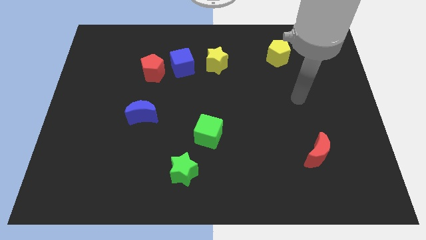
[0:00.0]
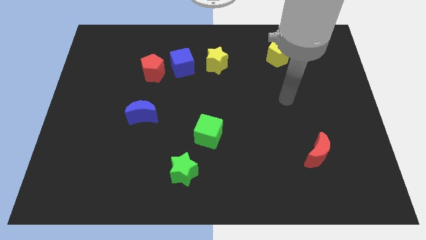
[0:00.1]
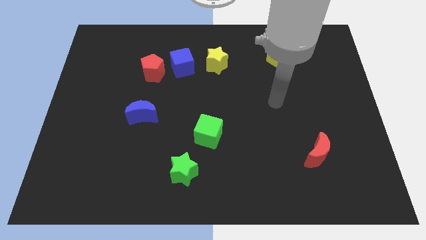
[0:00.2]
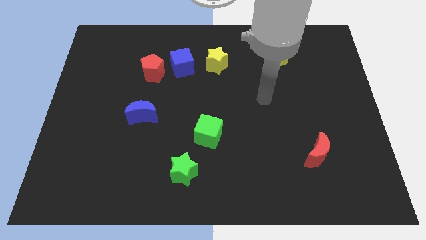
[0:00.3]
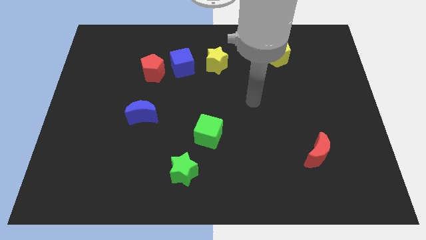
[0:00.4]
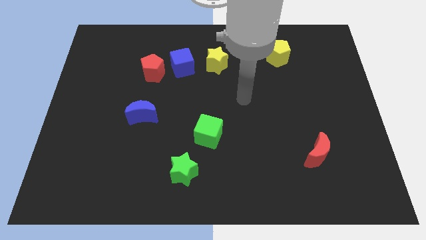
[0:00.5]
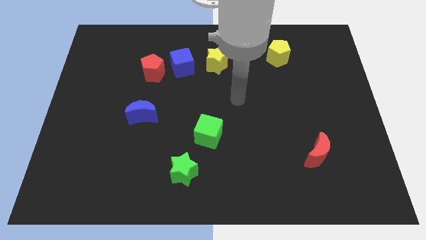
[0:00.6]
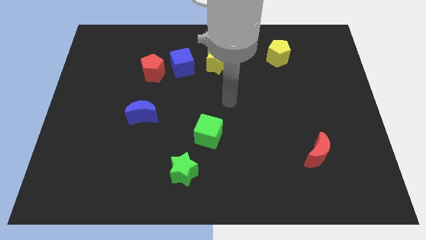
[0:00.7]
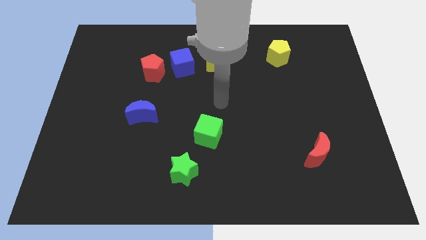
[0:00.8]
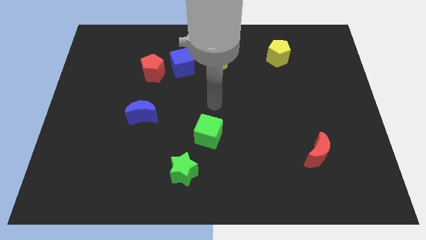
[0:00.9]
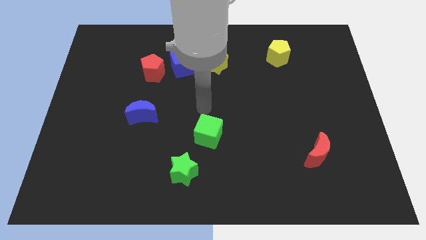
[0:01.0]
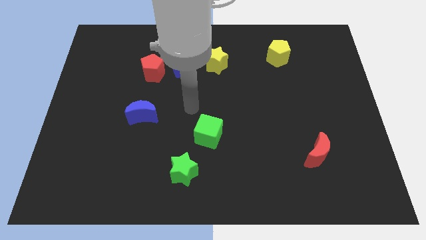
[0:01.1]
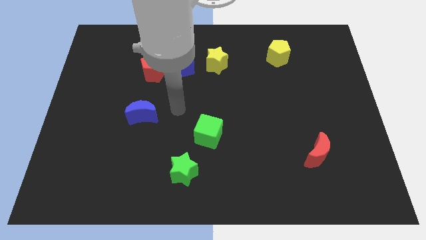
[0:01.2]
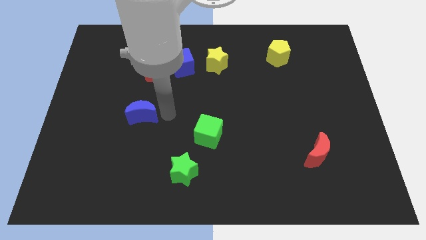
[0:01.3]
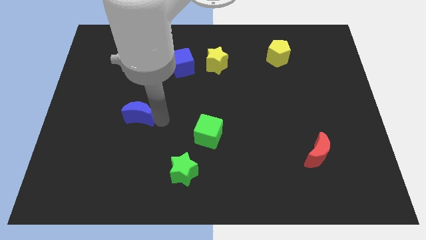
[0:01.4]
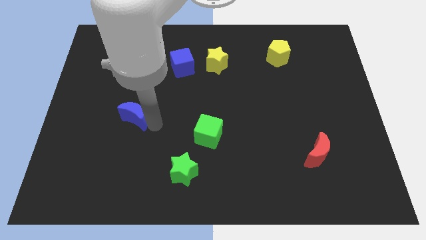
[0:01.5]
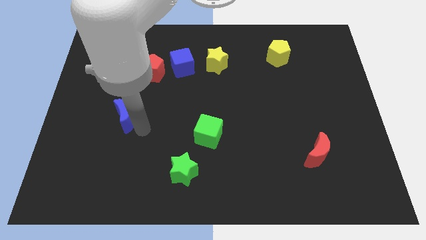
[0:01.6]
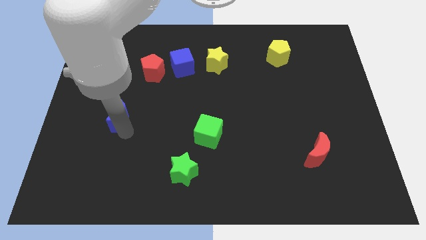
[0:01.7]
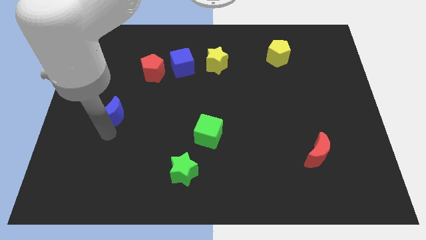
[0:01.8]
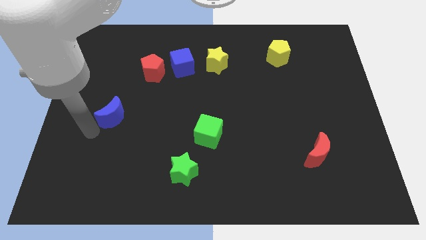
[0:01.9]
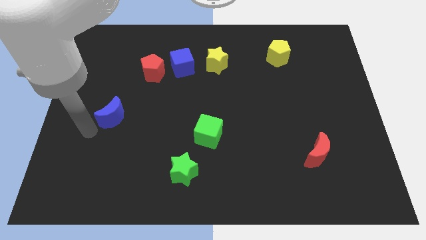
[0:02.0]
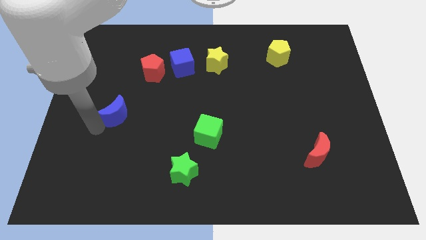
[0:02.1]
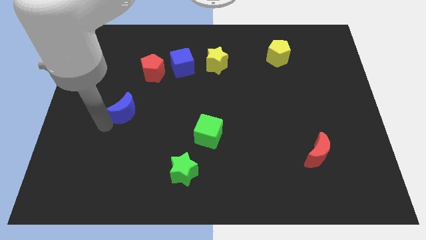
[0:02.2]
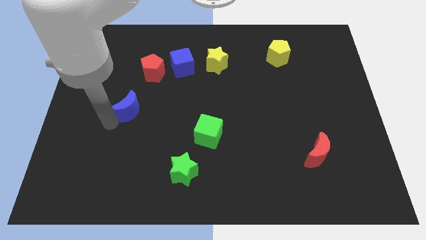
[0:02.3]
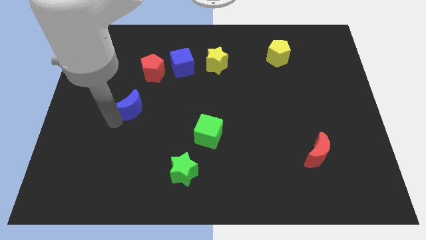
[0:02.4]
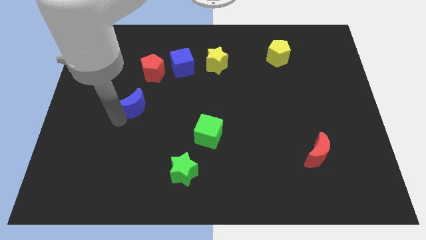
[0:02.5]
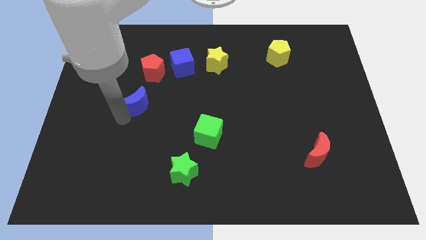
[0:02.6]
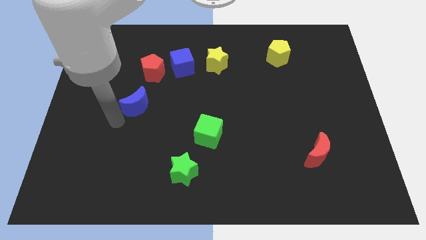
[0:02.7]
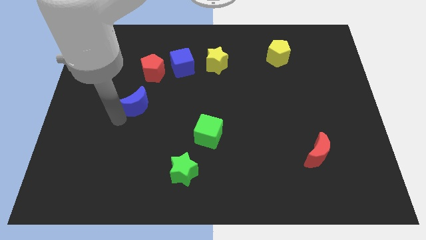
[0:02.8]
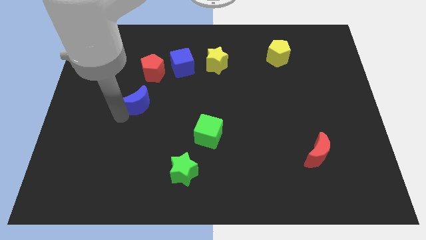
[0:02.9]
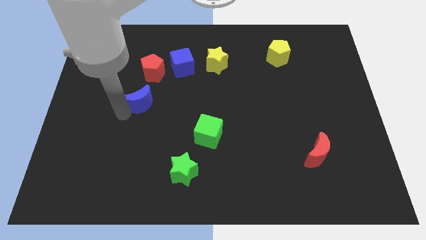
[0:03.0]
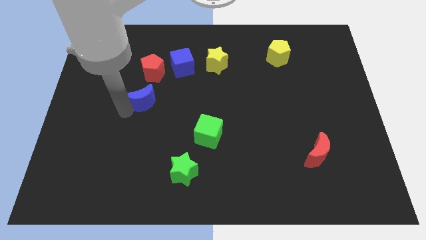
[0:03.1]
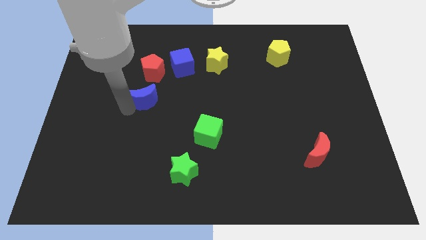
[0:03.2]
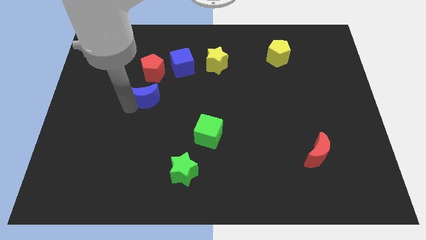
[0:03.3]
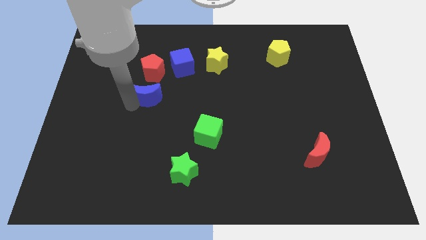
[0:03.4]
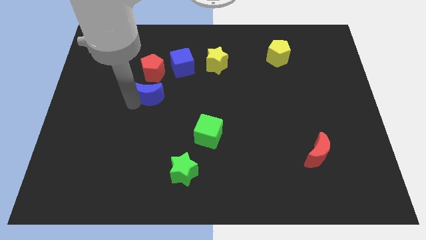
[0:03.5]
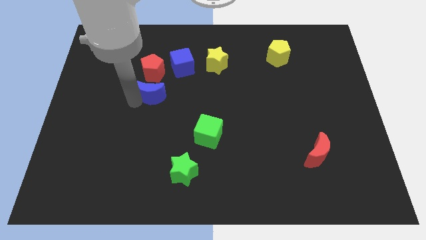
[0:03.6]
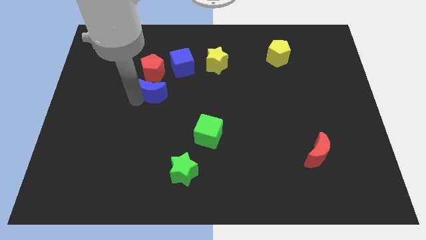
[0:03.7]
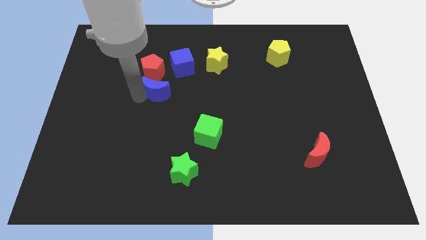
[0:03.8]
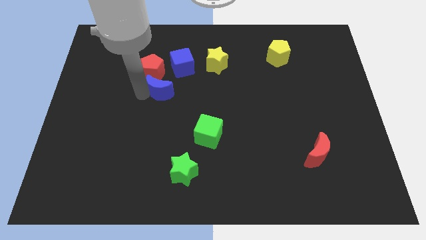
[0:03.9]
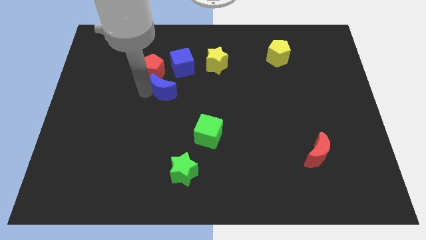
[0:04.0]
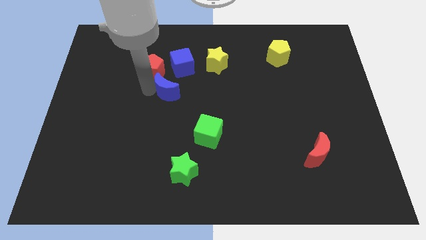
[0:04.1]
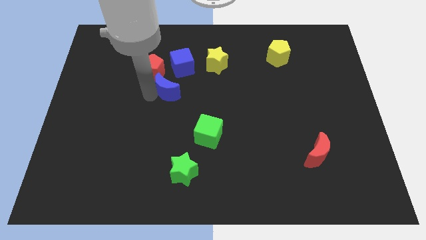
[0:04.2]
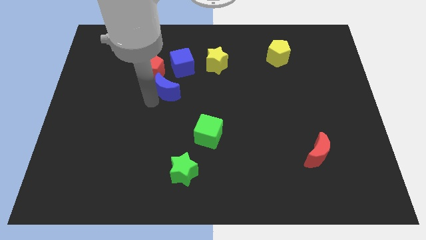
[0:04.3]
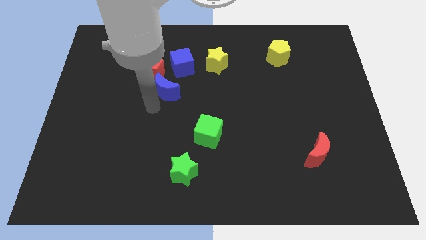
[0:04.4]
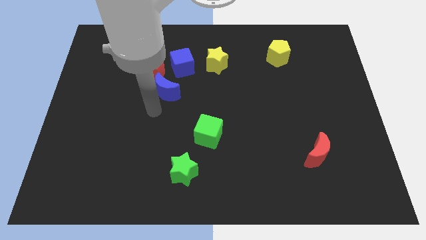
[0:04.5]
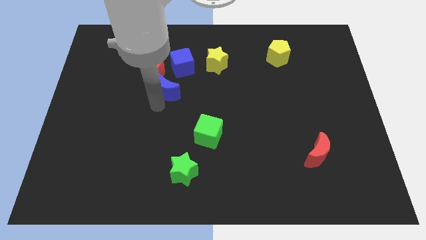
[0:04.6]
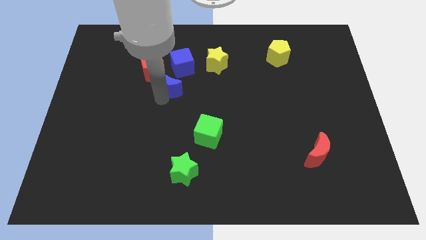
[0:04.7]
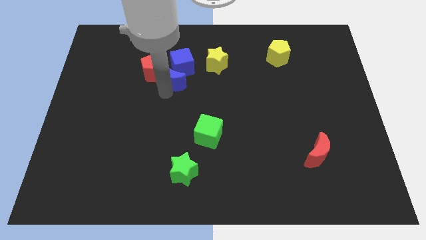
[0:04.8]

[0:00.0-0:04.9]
put the blue moon to the blue cube

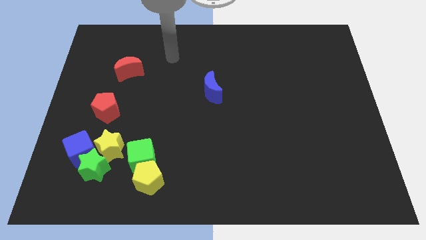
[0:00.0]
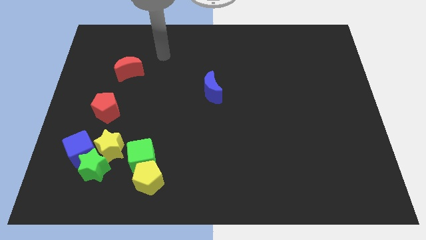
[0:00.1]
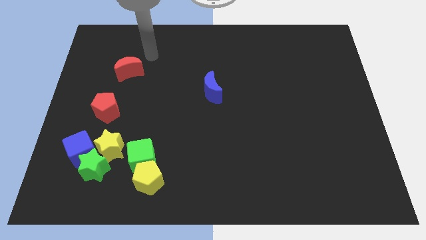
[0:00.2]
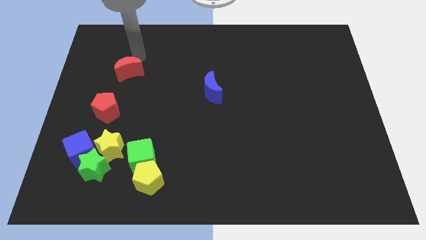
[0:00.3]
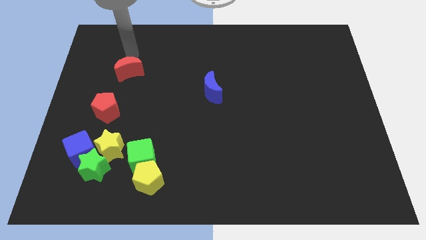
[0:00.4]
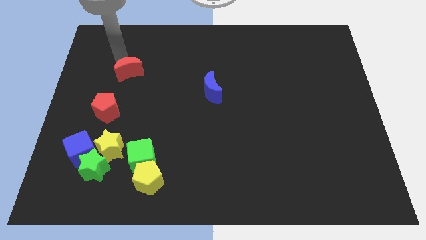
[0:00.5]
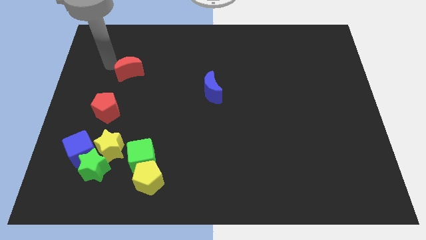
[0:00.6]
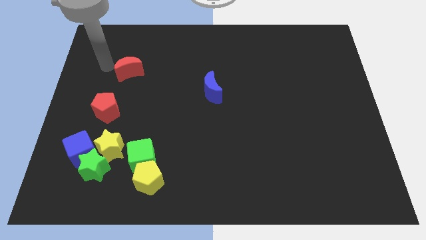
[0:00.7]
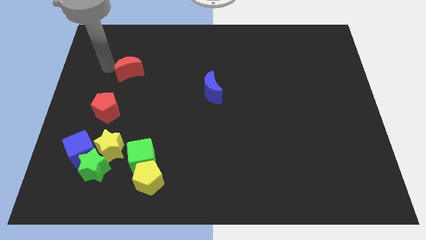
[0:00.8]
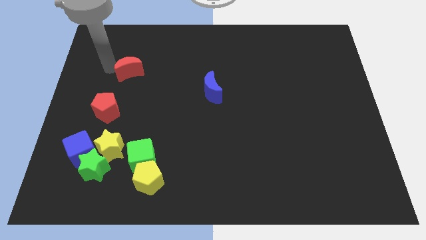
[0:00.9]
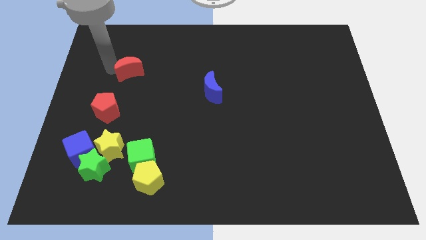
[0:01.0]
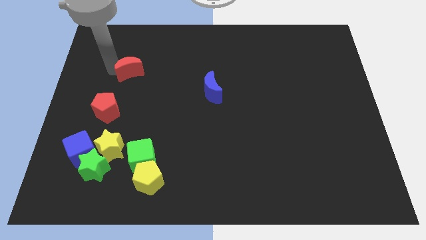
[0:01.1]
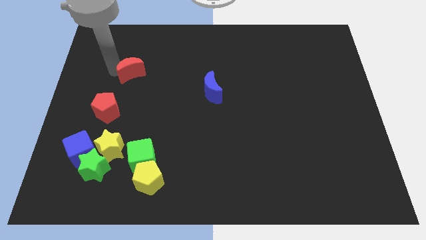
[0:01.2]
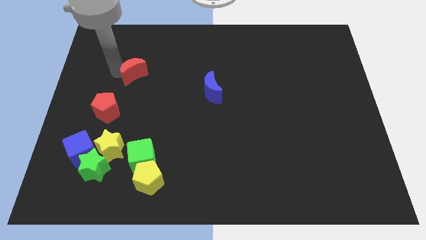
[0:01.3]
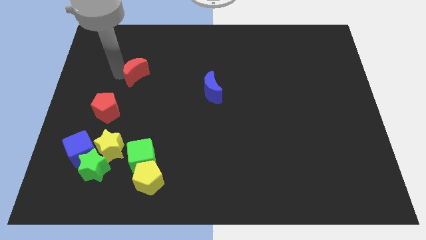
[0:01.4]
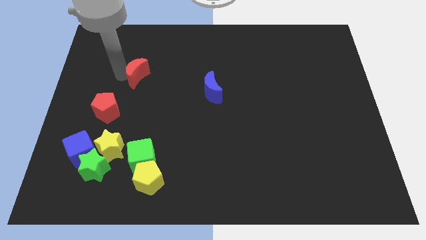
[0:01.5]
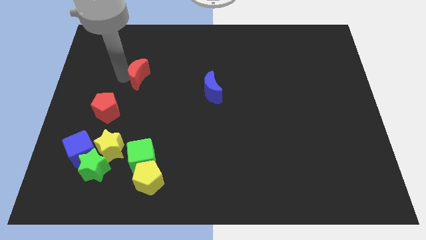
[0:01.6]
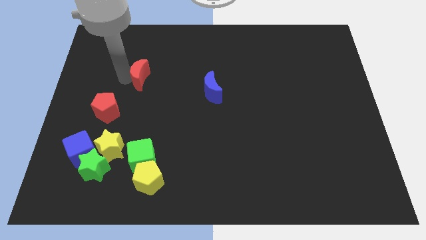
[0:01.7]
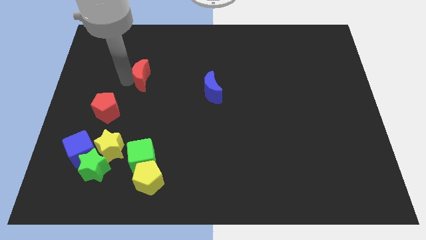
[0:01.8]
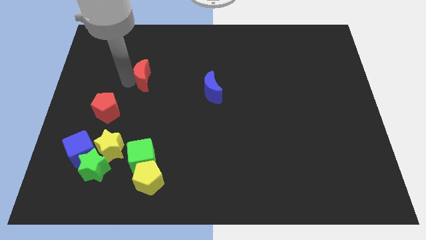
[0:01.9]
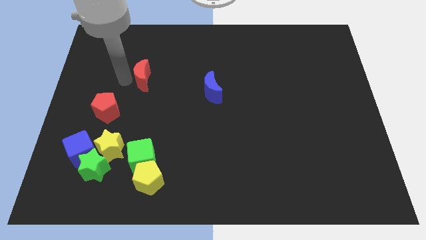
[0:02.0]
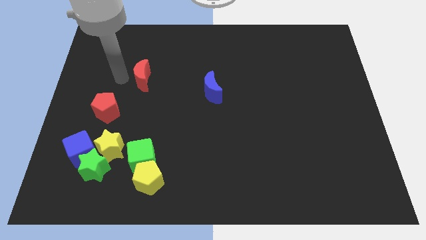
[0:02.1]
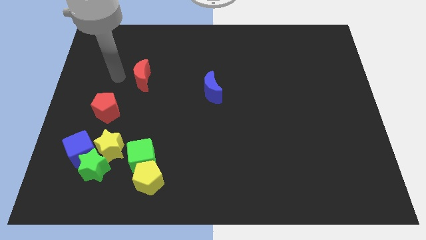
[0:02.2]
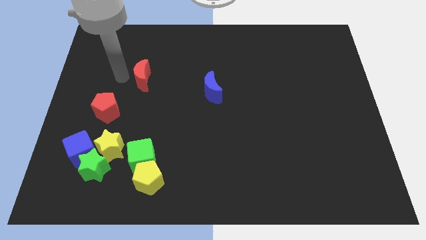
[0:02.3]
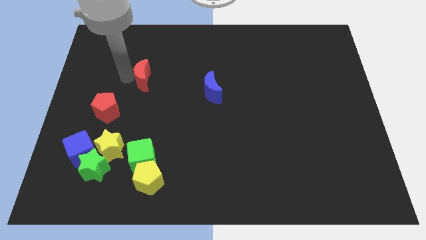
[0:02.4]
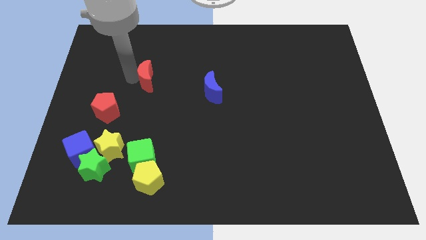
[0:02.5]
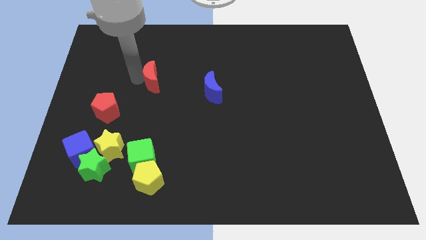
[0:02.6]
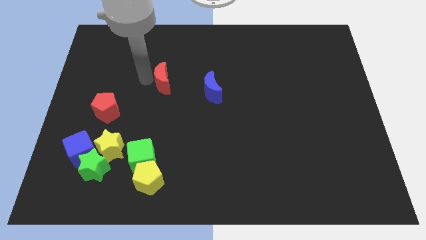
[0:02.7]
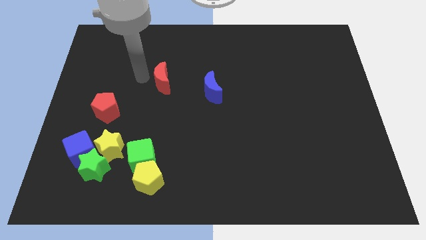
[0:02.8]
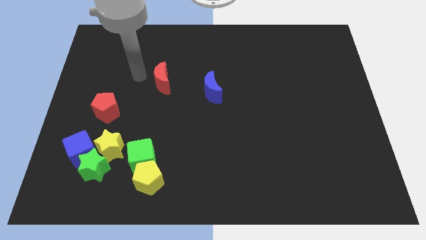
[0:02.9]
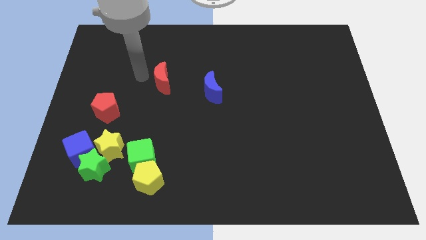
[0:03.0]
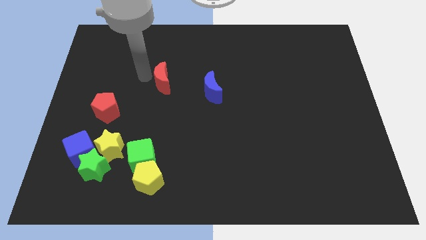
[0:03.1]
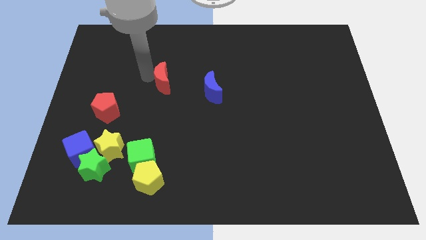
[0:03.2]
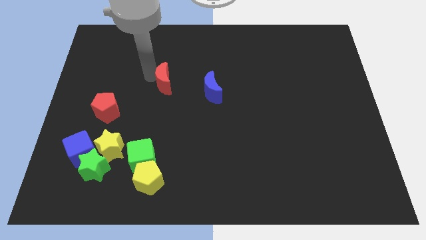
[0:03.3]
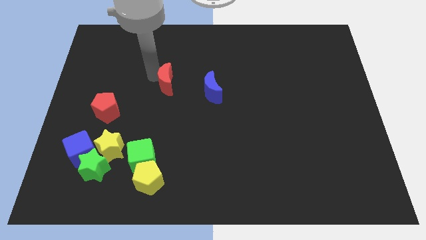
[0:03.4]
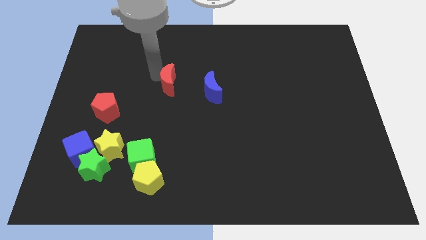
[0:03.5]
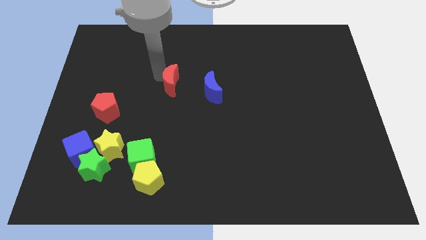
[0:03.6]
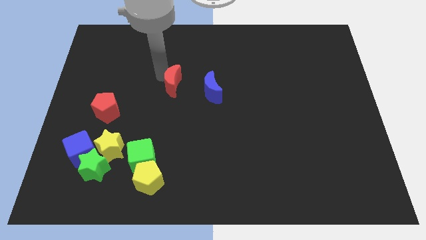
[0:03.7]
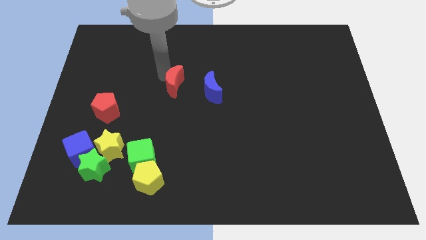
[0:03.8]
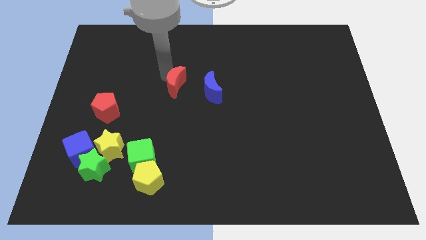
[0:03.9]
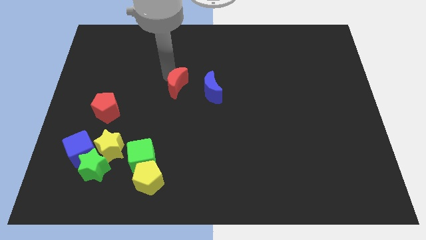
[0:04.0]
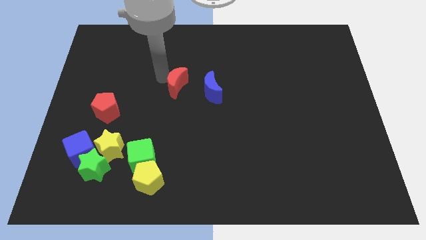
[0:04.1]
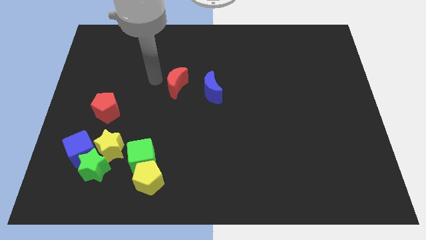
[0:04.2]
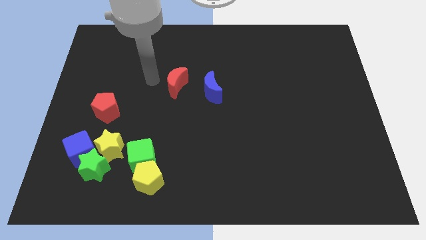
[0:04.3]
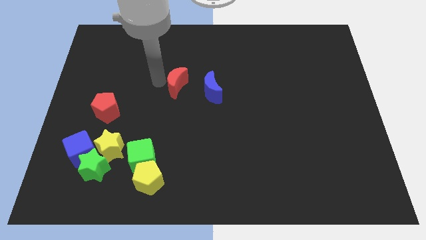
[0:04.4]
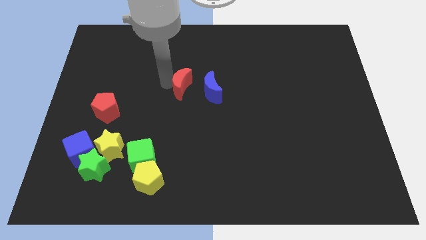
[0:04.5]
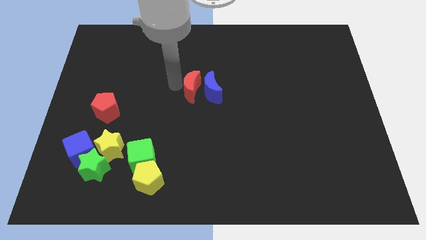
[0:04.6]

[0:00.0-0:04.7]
put the red moon towards the blue moon
